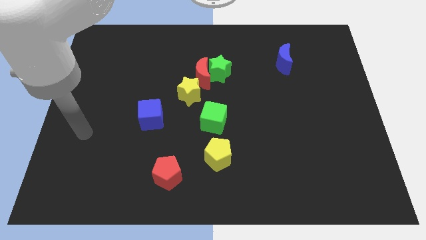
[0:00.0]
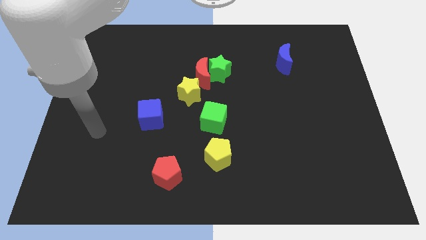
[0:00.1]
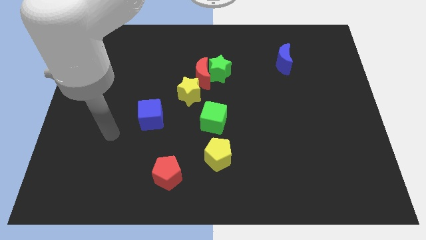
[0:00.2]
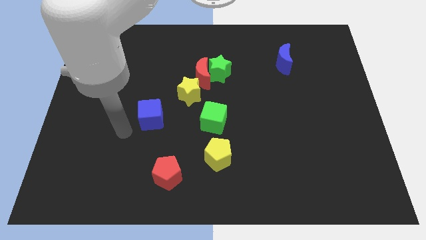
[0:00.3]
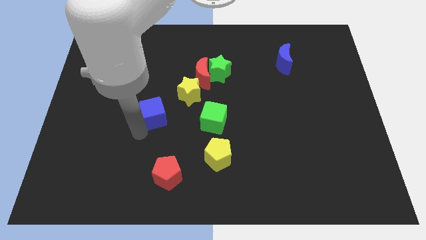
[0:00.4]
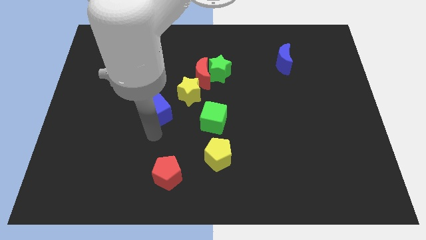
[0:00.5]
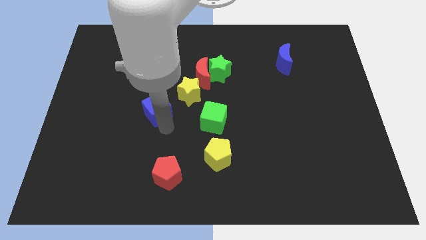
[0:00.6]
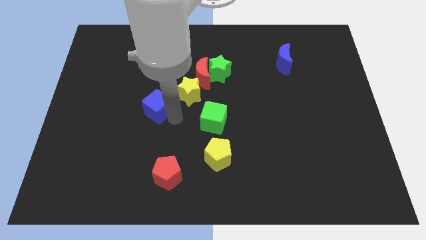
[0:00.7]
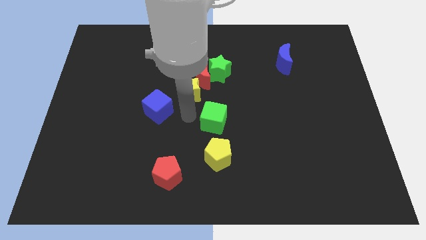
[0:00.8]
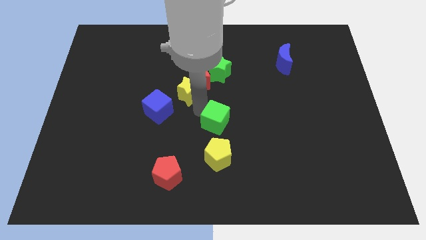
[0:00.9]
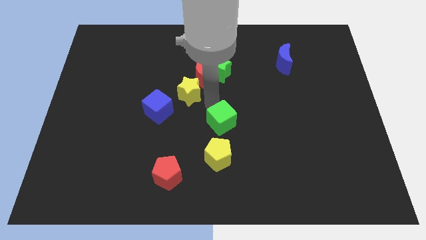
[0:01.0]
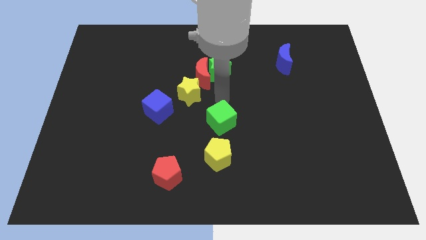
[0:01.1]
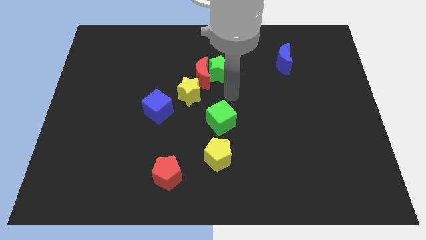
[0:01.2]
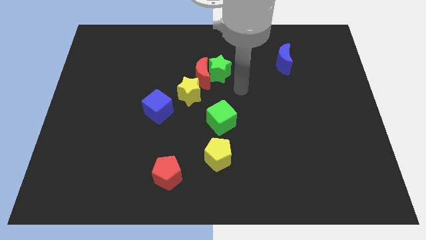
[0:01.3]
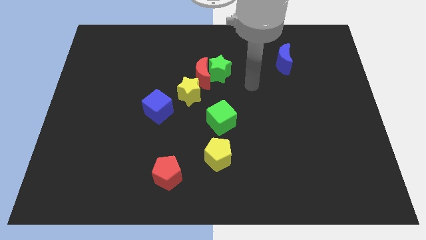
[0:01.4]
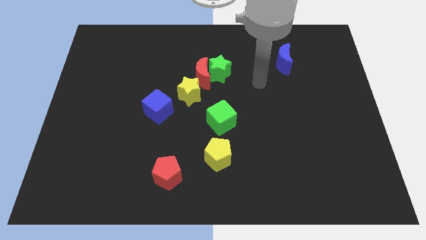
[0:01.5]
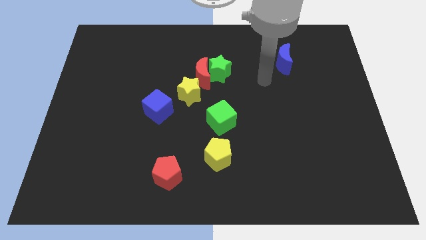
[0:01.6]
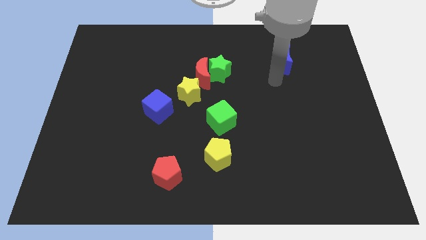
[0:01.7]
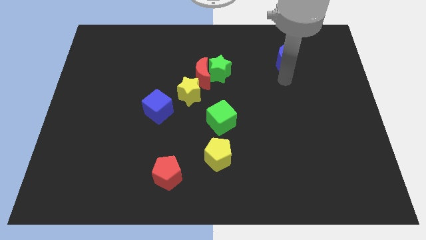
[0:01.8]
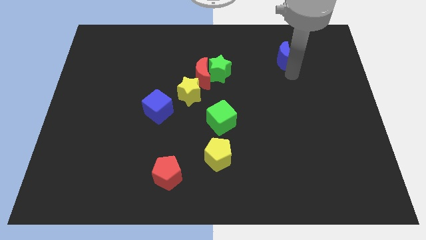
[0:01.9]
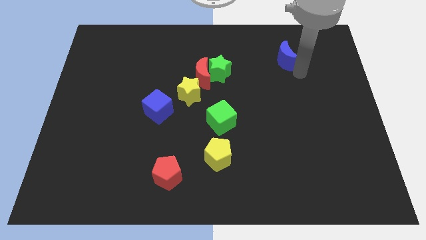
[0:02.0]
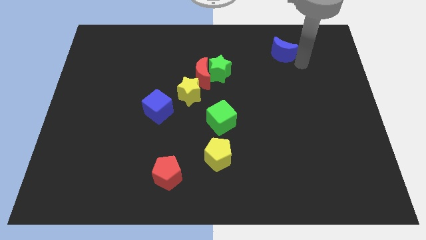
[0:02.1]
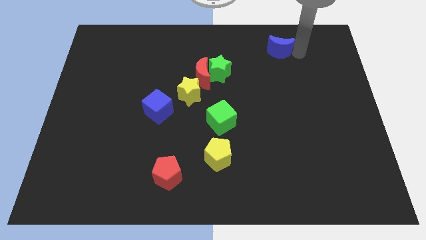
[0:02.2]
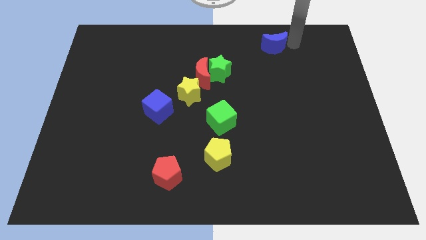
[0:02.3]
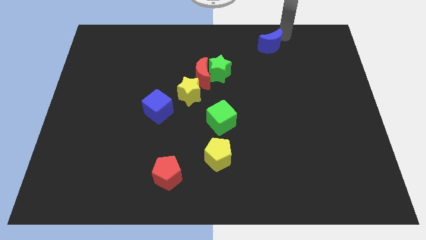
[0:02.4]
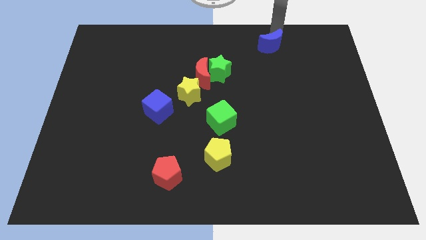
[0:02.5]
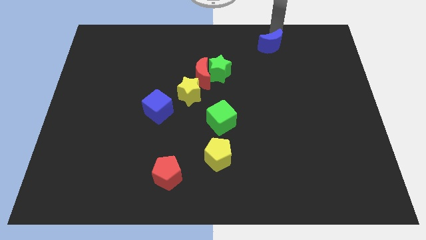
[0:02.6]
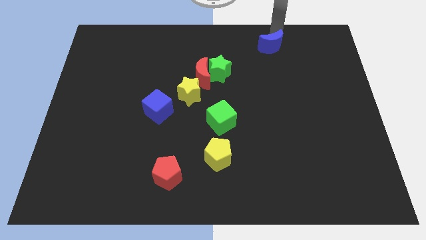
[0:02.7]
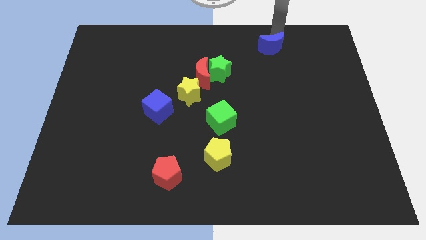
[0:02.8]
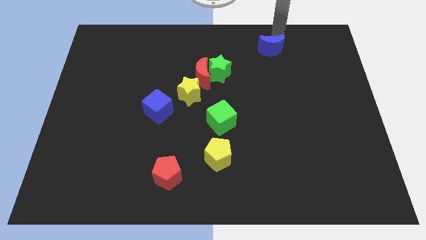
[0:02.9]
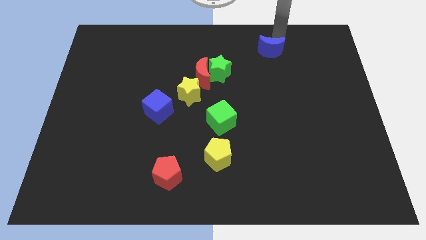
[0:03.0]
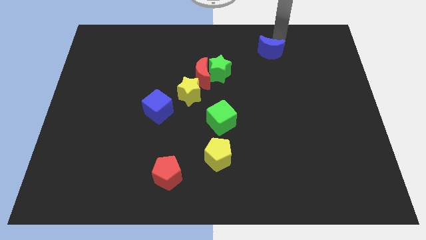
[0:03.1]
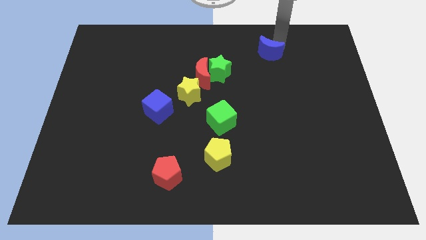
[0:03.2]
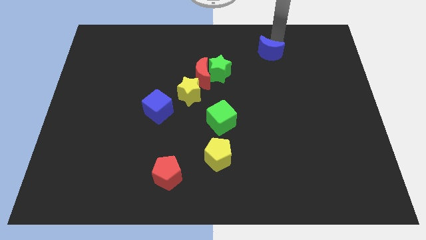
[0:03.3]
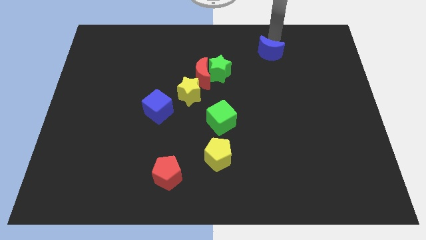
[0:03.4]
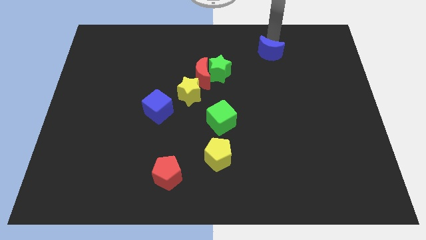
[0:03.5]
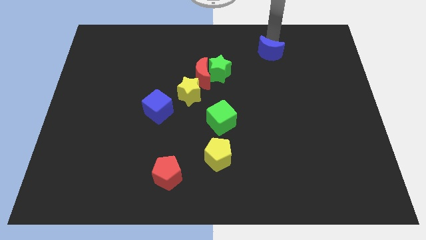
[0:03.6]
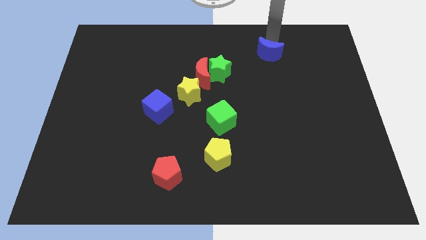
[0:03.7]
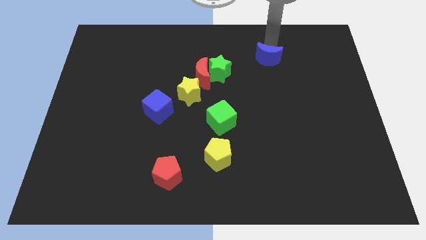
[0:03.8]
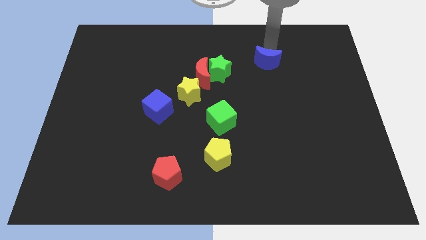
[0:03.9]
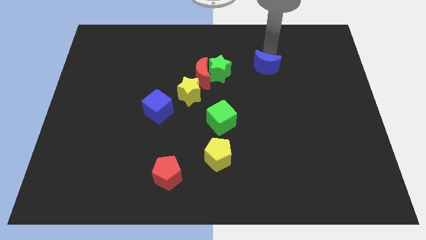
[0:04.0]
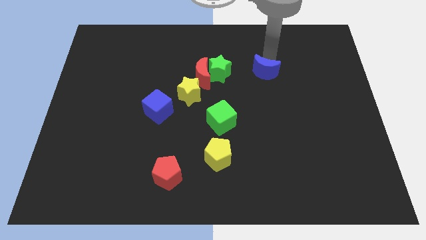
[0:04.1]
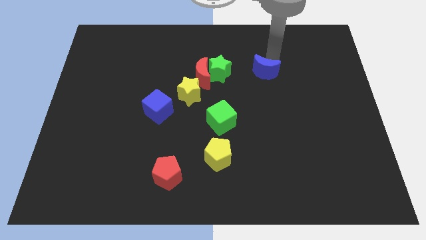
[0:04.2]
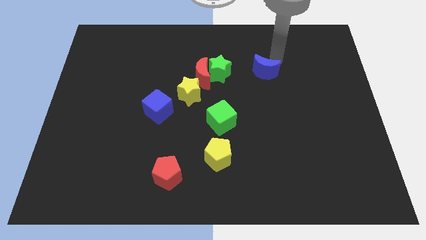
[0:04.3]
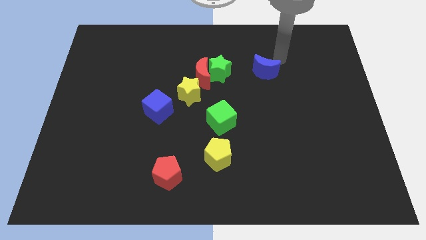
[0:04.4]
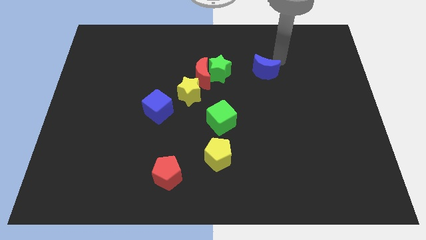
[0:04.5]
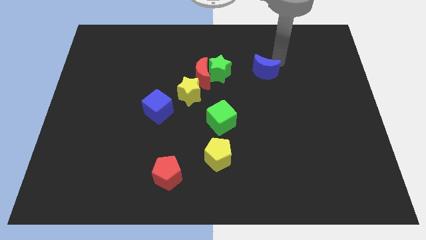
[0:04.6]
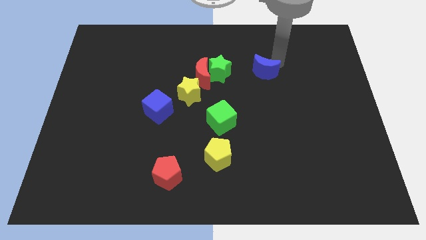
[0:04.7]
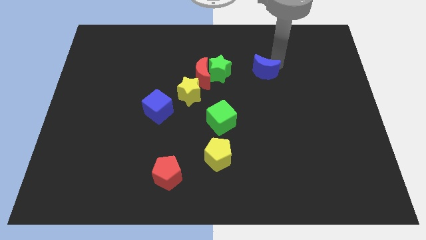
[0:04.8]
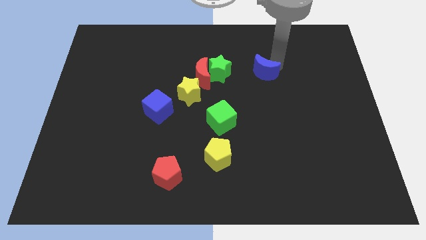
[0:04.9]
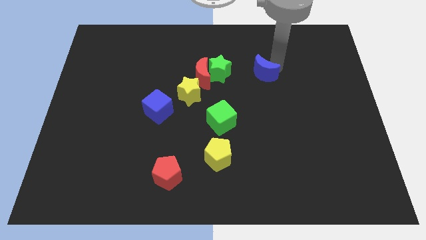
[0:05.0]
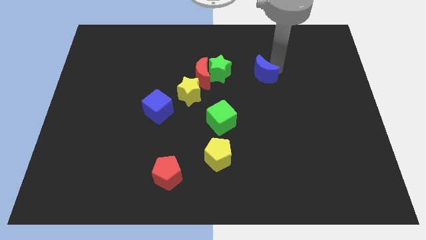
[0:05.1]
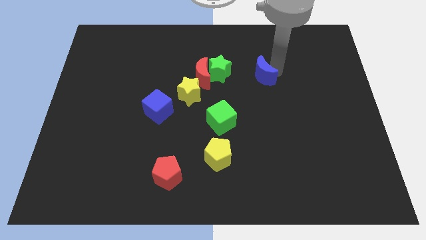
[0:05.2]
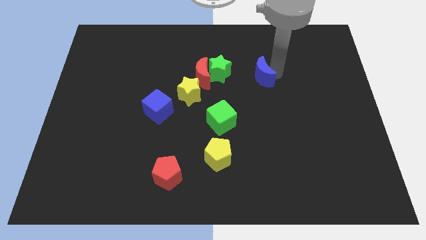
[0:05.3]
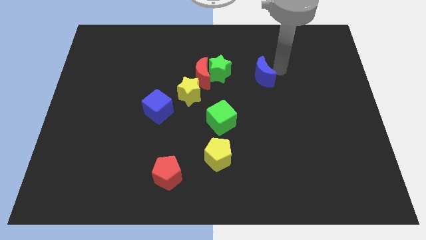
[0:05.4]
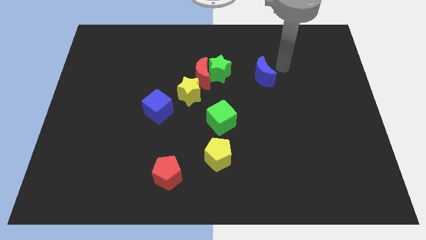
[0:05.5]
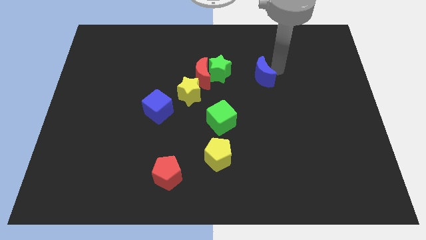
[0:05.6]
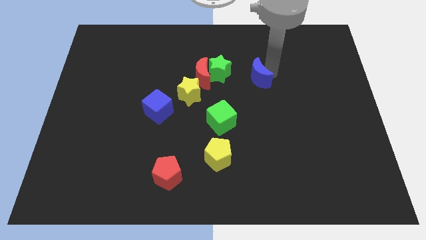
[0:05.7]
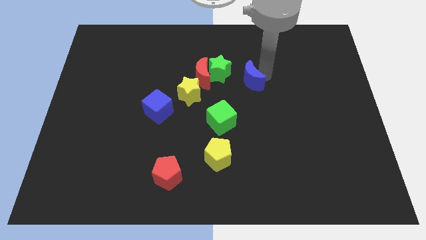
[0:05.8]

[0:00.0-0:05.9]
put the blue moon to the middle
